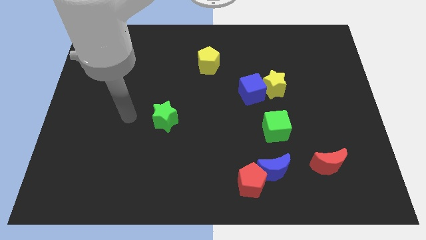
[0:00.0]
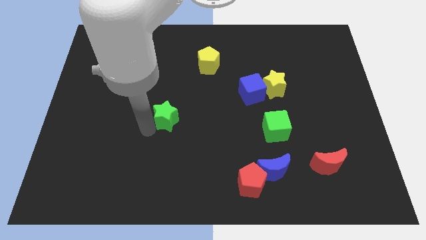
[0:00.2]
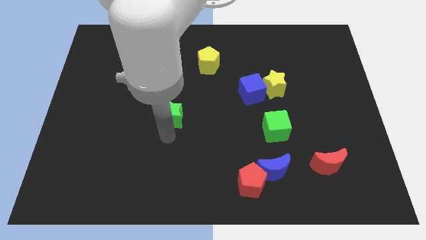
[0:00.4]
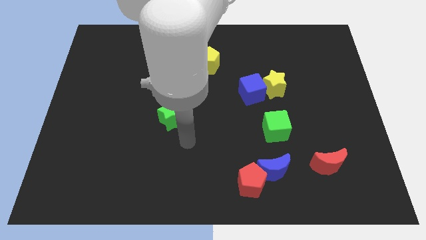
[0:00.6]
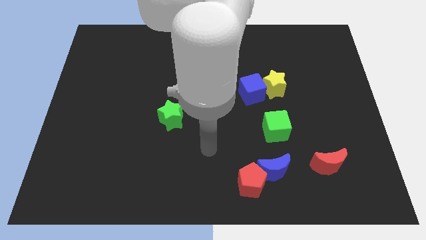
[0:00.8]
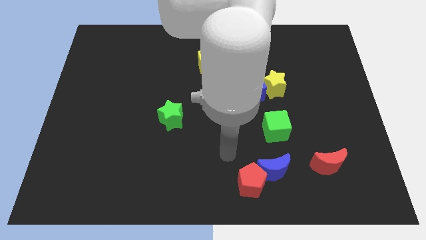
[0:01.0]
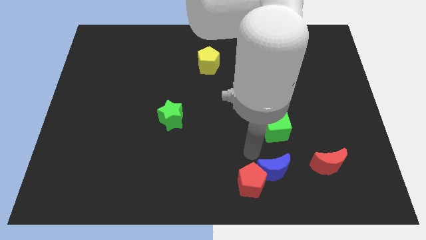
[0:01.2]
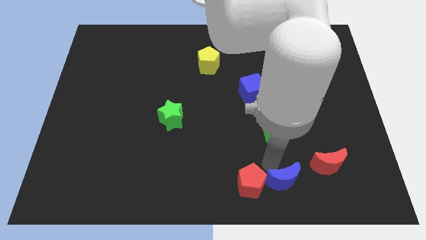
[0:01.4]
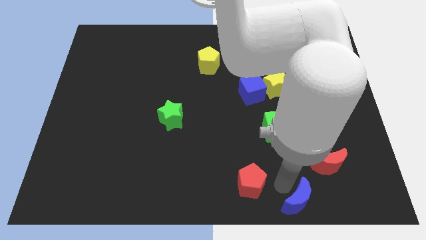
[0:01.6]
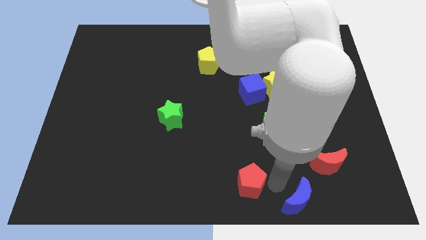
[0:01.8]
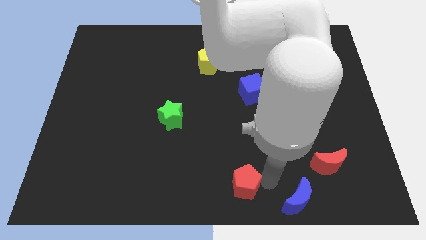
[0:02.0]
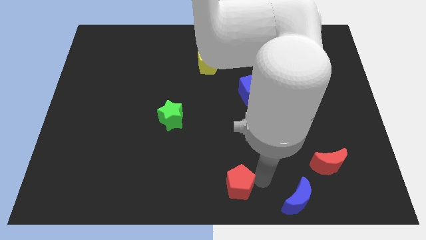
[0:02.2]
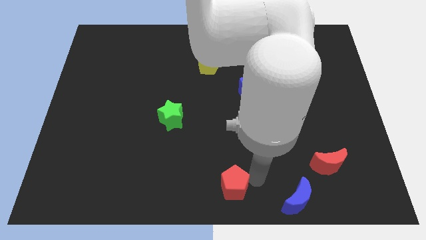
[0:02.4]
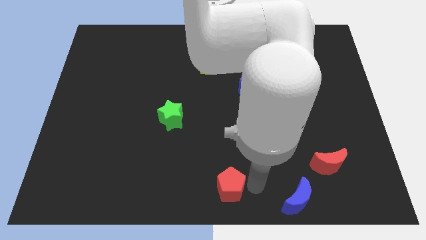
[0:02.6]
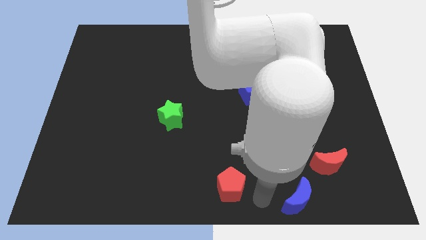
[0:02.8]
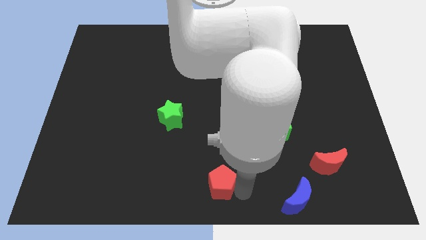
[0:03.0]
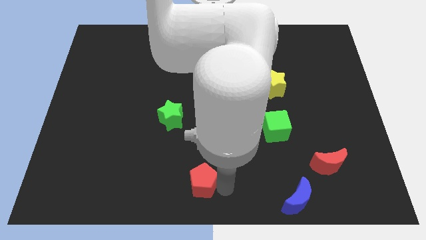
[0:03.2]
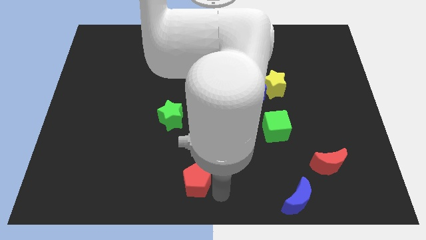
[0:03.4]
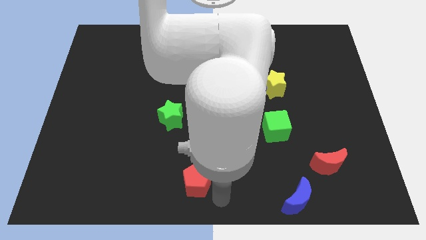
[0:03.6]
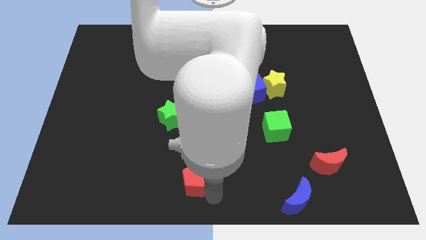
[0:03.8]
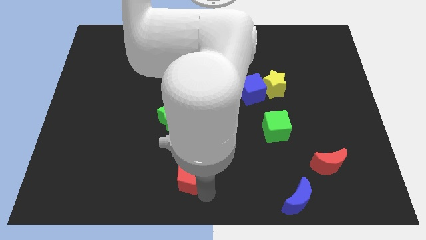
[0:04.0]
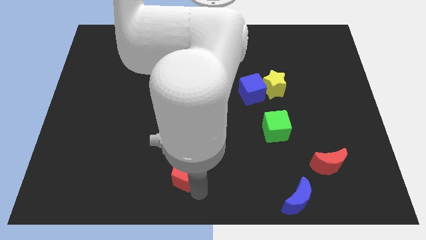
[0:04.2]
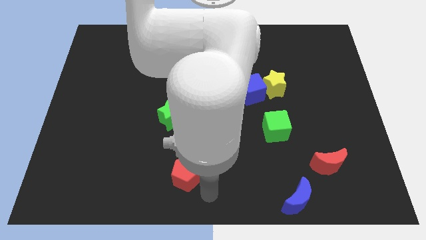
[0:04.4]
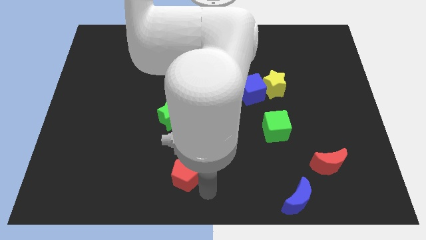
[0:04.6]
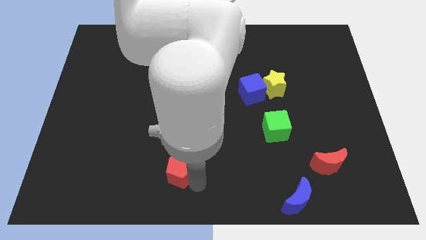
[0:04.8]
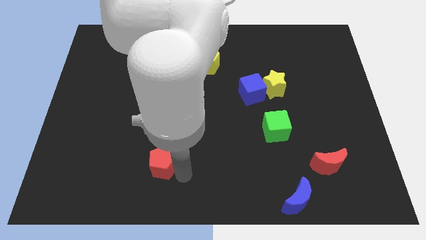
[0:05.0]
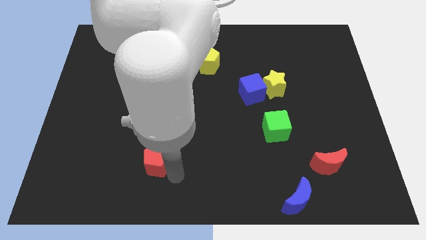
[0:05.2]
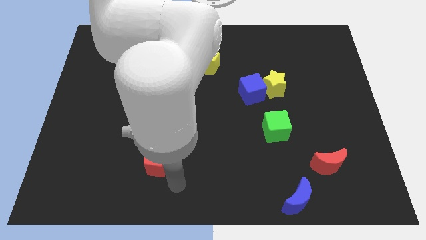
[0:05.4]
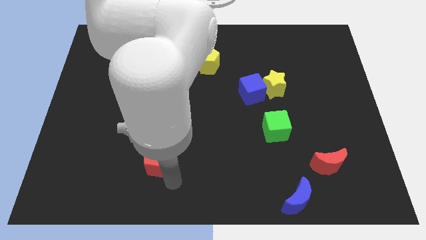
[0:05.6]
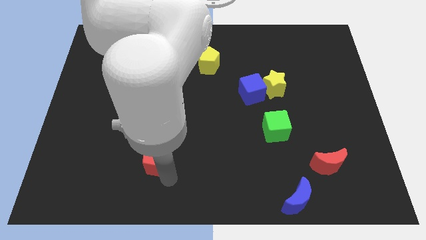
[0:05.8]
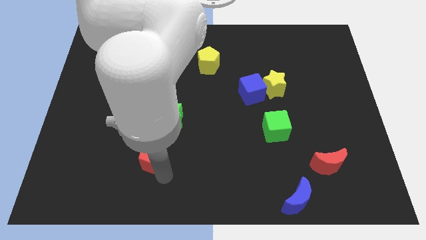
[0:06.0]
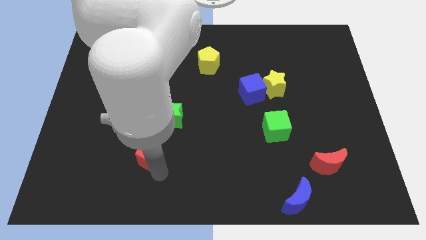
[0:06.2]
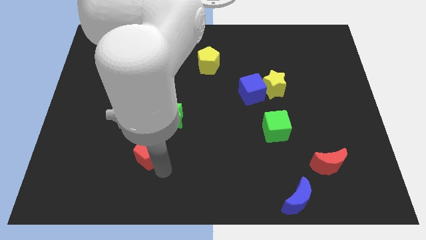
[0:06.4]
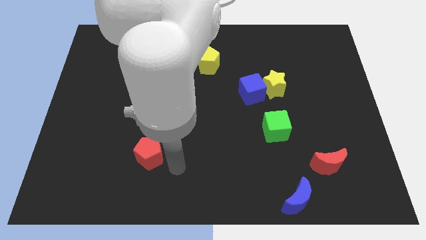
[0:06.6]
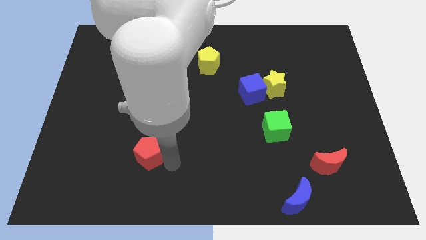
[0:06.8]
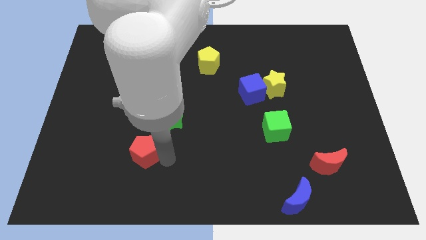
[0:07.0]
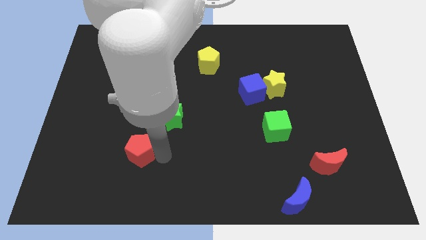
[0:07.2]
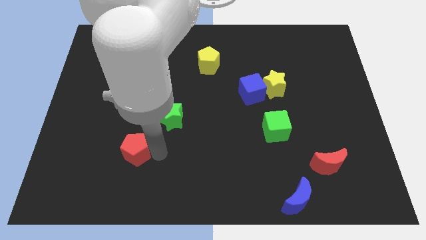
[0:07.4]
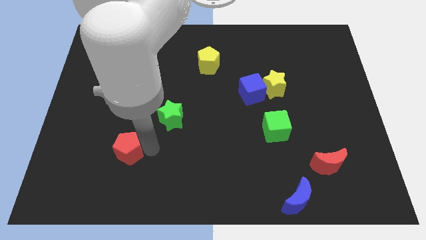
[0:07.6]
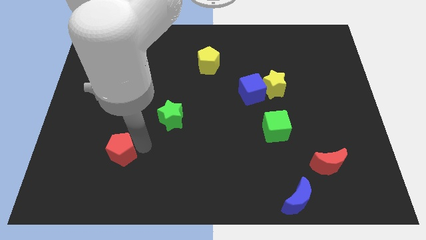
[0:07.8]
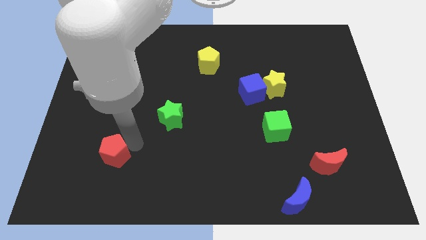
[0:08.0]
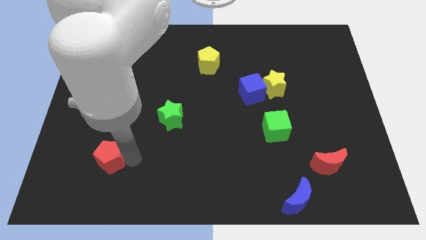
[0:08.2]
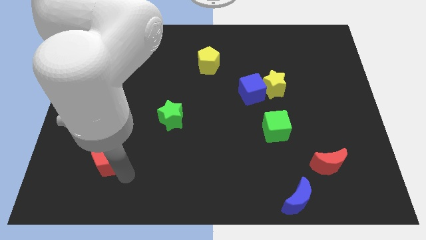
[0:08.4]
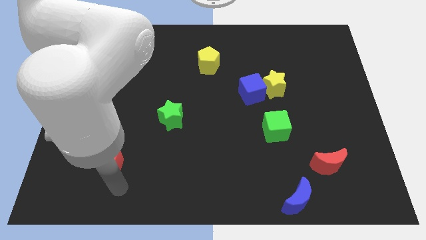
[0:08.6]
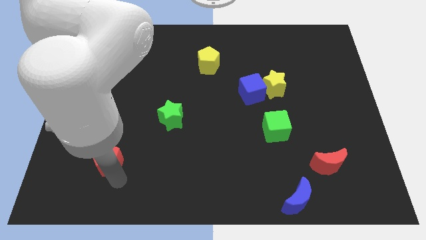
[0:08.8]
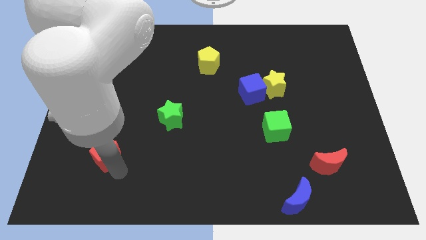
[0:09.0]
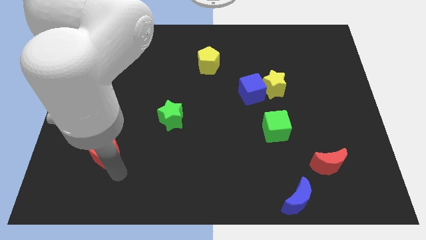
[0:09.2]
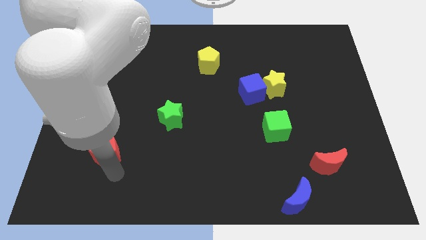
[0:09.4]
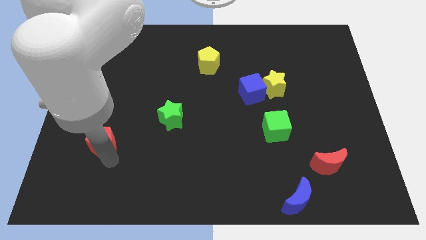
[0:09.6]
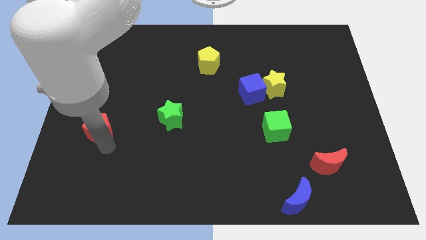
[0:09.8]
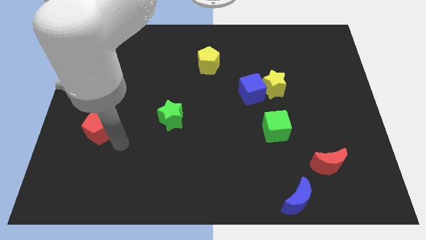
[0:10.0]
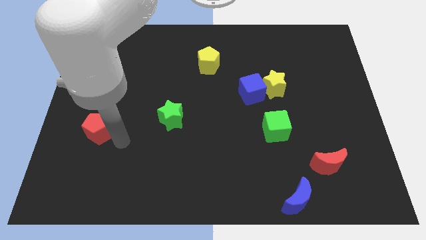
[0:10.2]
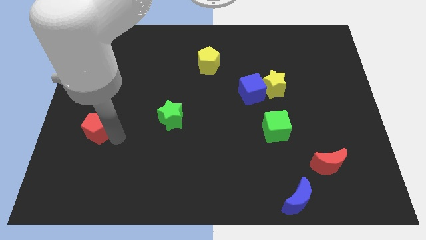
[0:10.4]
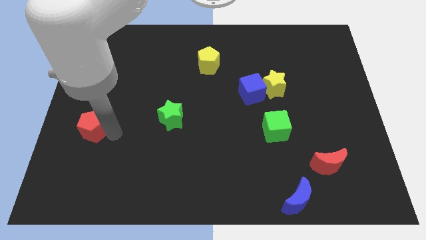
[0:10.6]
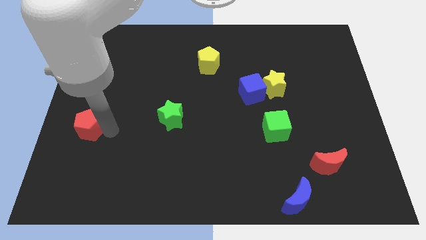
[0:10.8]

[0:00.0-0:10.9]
push the red pentagon to the center left
